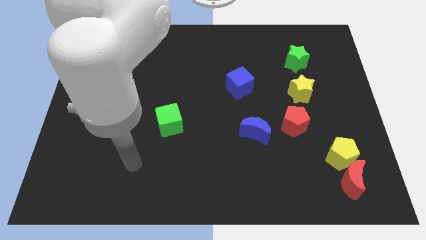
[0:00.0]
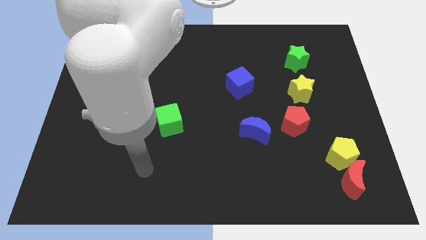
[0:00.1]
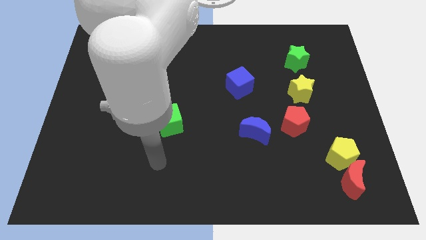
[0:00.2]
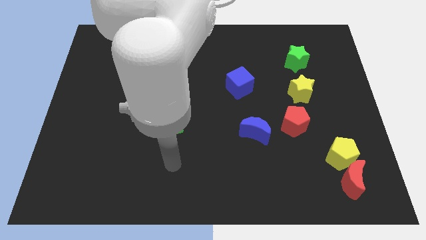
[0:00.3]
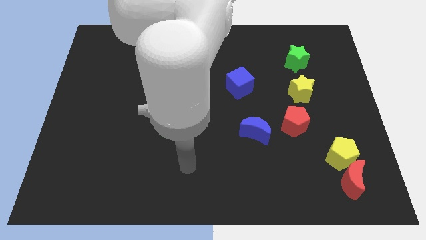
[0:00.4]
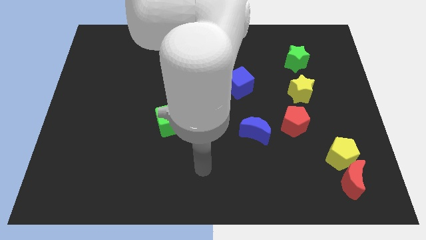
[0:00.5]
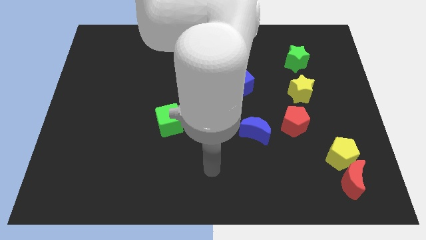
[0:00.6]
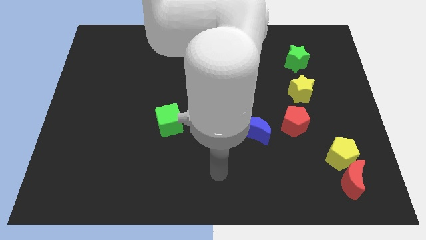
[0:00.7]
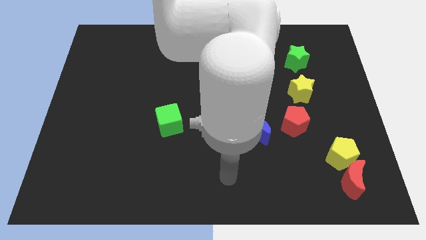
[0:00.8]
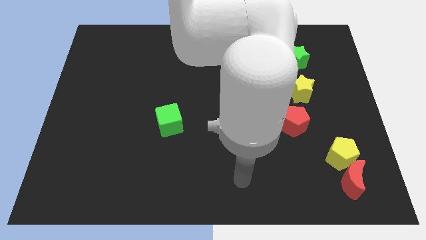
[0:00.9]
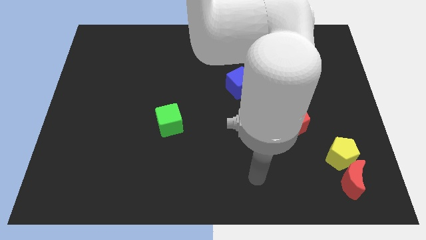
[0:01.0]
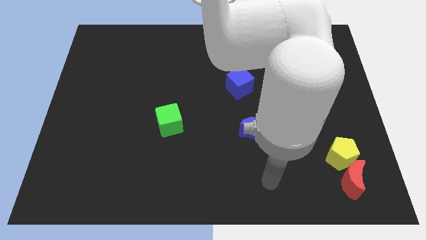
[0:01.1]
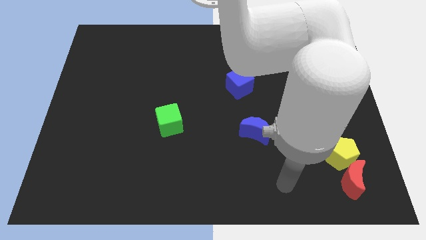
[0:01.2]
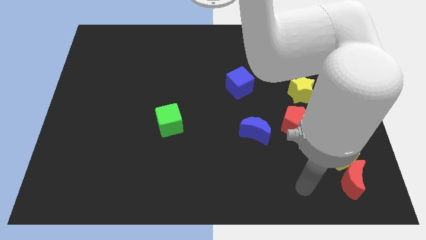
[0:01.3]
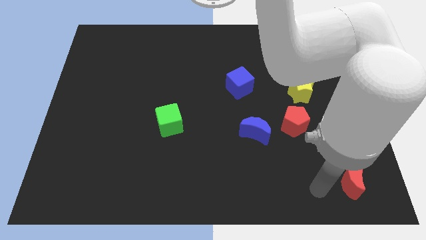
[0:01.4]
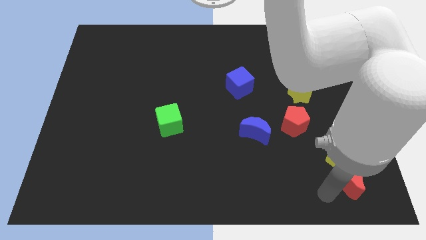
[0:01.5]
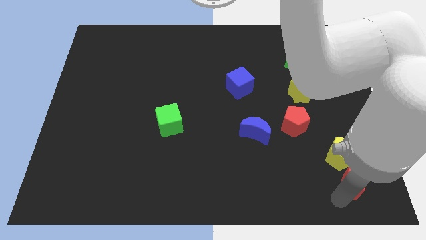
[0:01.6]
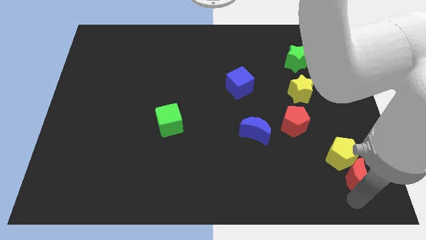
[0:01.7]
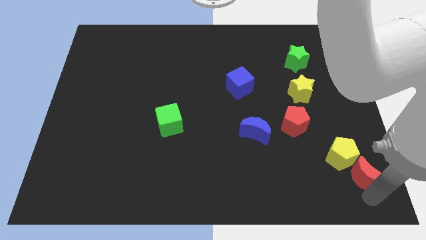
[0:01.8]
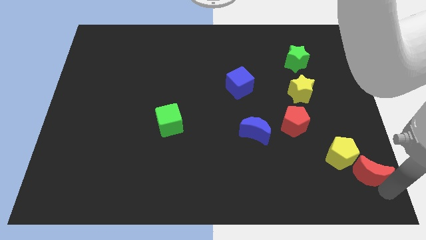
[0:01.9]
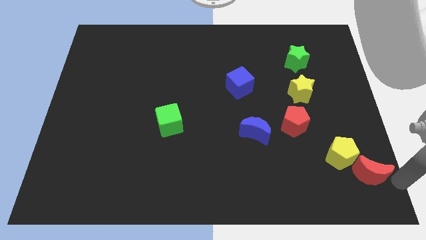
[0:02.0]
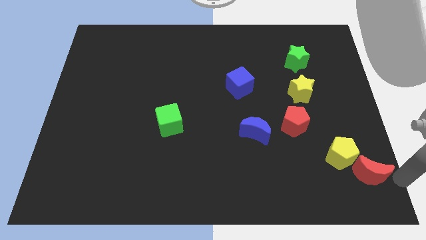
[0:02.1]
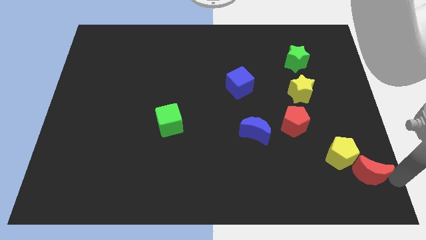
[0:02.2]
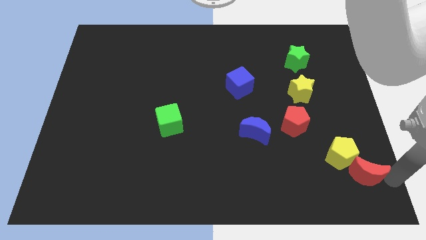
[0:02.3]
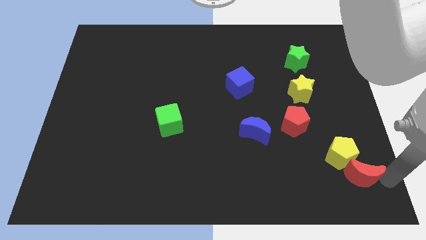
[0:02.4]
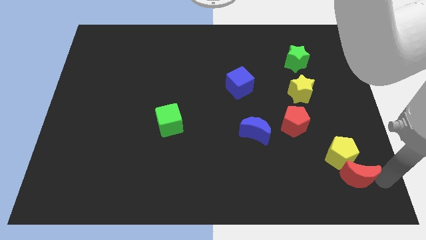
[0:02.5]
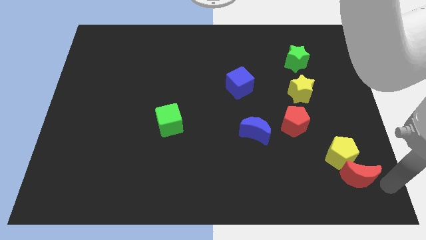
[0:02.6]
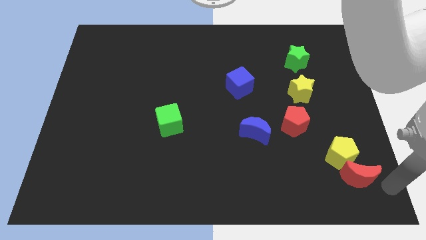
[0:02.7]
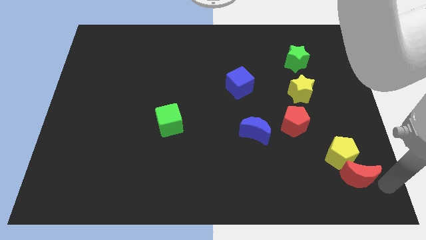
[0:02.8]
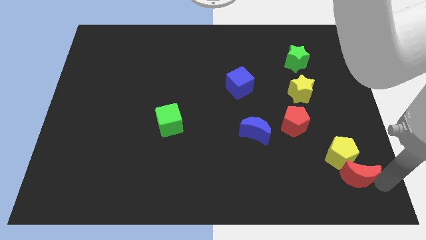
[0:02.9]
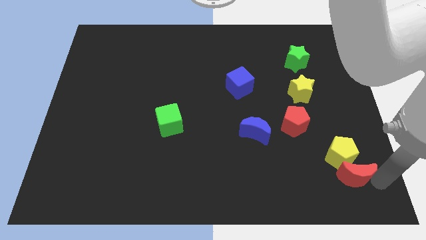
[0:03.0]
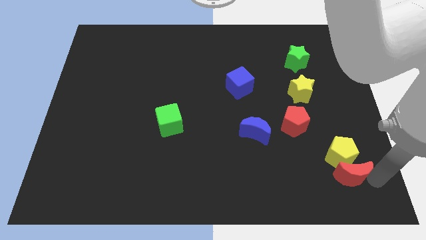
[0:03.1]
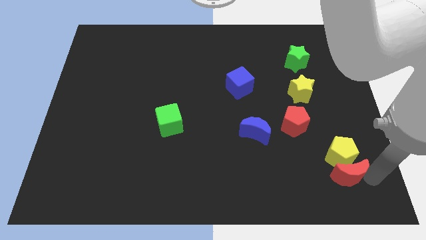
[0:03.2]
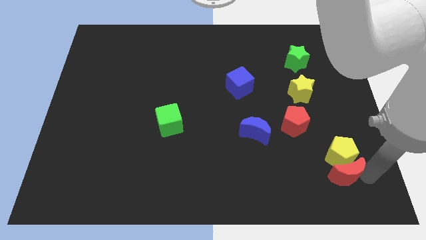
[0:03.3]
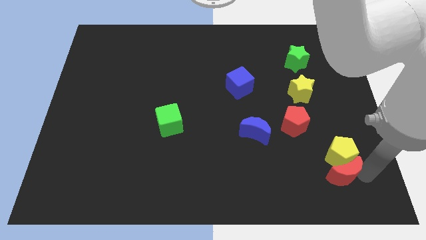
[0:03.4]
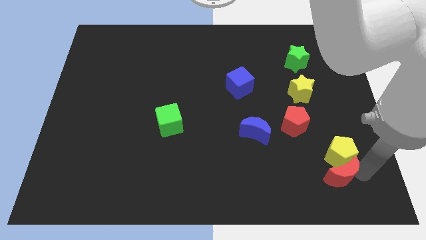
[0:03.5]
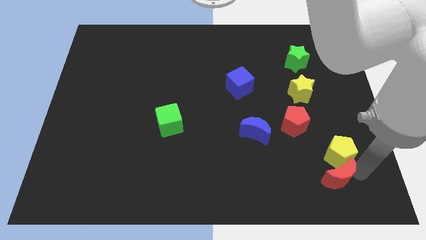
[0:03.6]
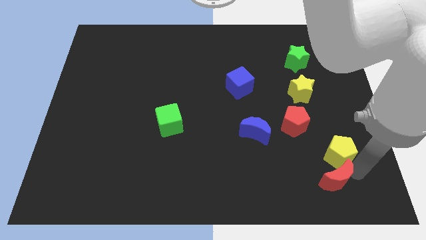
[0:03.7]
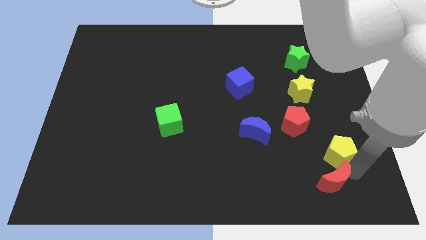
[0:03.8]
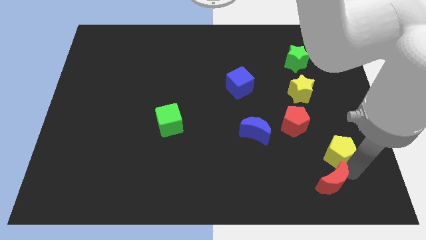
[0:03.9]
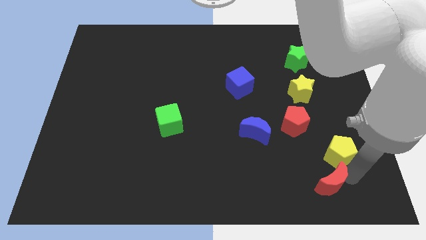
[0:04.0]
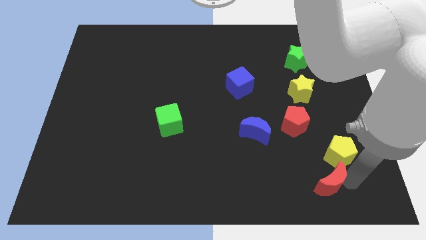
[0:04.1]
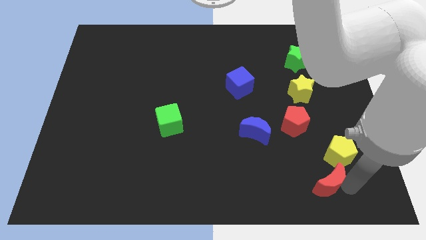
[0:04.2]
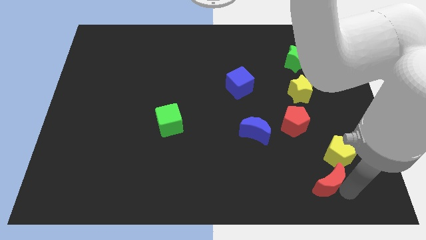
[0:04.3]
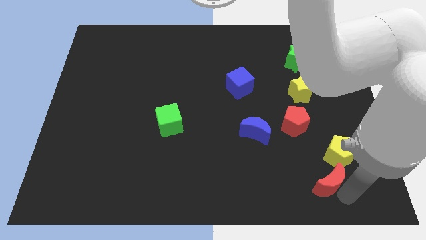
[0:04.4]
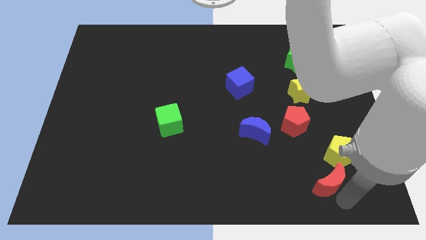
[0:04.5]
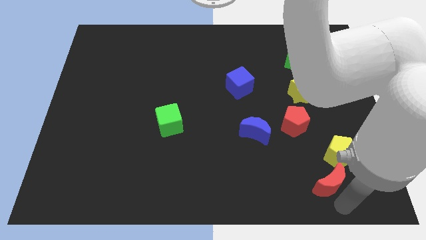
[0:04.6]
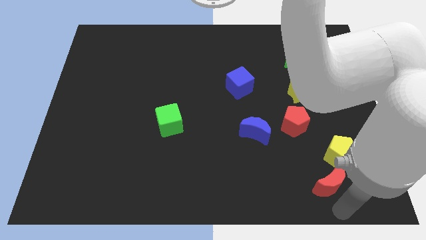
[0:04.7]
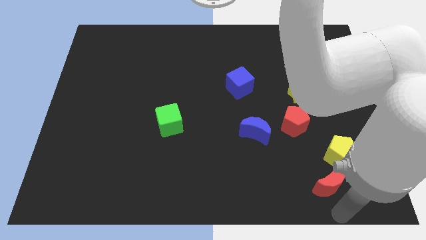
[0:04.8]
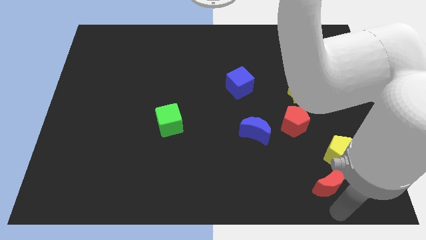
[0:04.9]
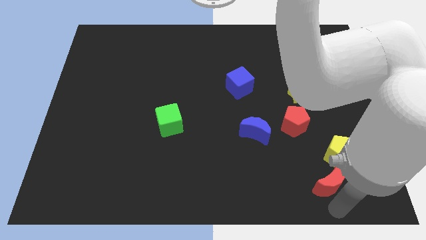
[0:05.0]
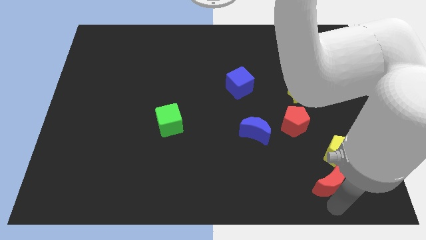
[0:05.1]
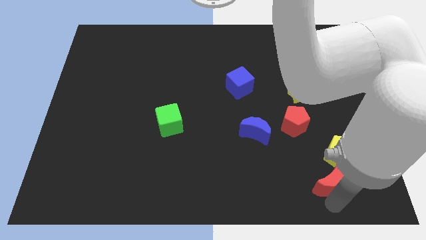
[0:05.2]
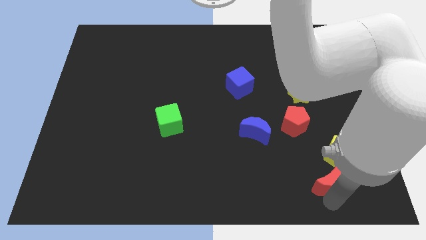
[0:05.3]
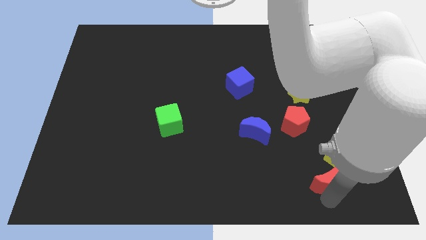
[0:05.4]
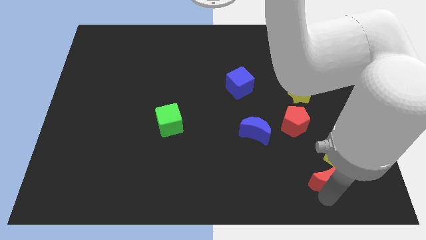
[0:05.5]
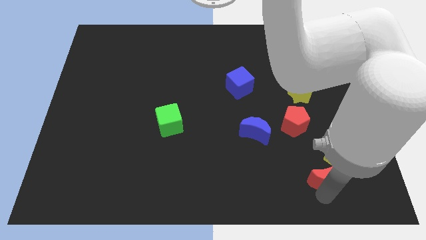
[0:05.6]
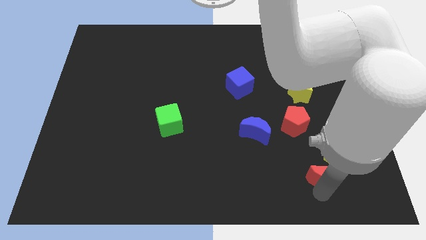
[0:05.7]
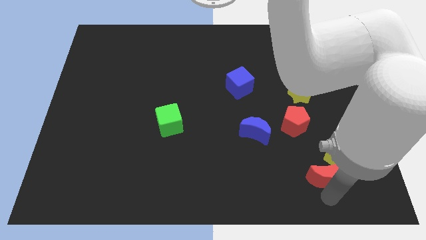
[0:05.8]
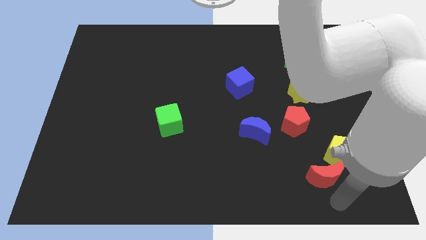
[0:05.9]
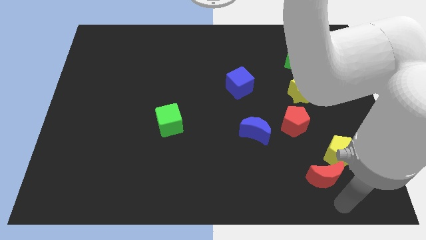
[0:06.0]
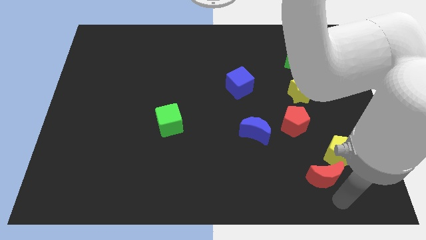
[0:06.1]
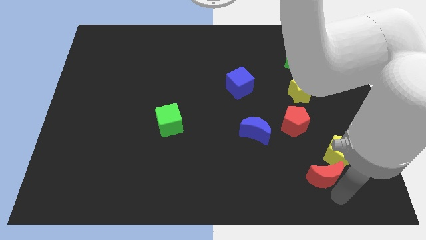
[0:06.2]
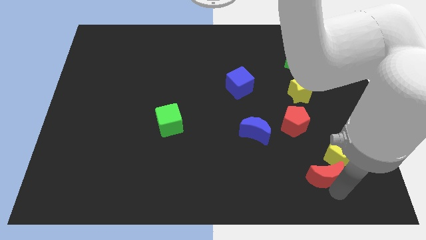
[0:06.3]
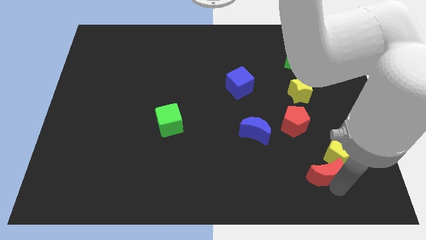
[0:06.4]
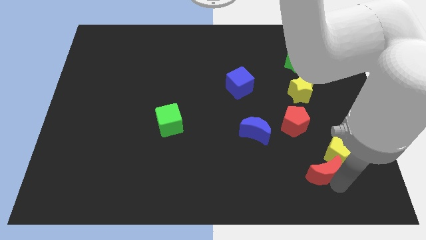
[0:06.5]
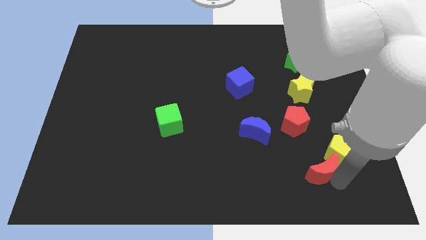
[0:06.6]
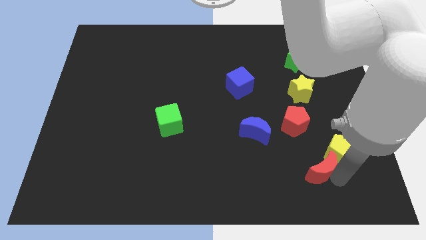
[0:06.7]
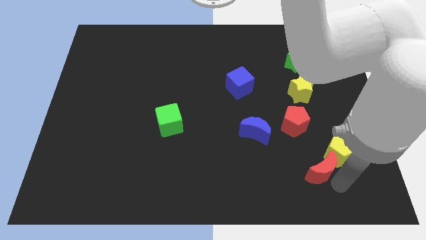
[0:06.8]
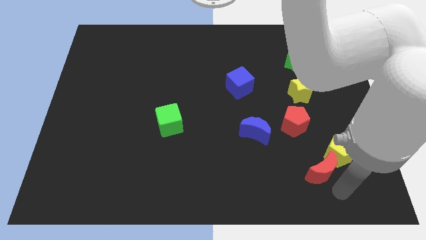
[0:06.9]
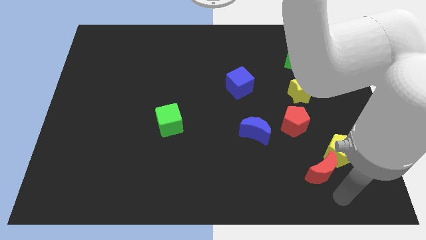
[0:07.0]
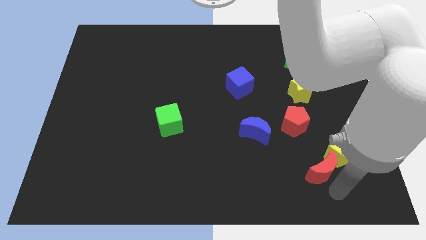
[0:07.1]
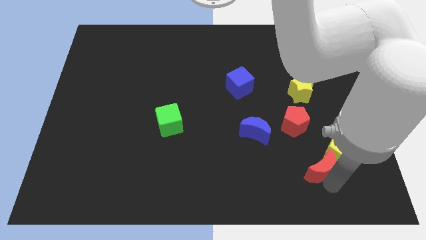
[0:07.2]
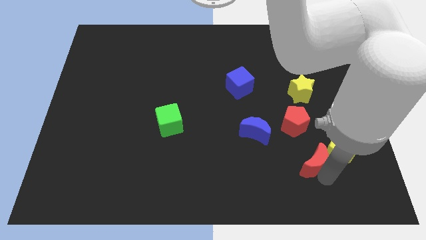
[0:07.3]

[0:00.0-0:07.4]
slightly push the red moon diagonally up and left

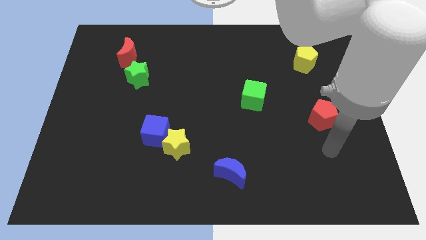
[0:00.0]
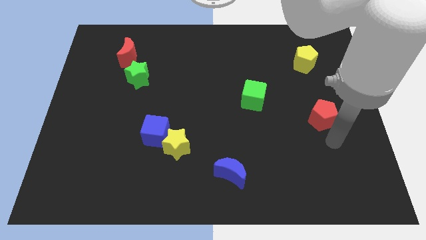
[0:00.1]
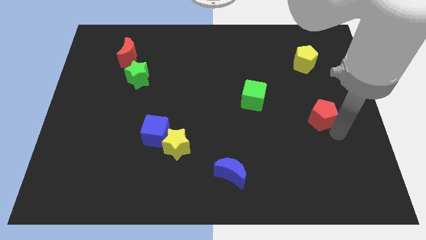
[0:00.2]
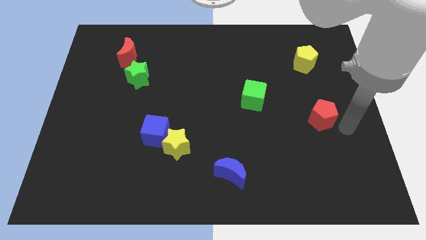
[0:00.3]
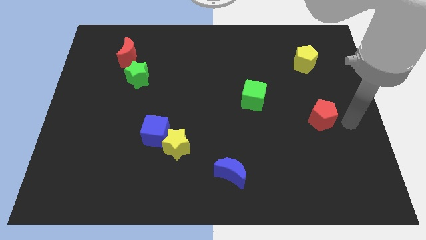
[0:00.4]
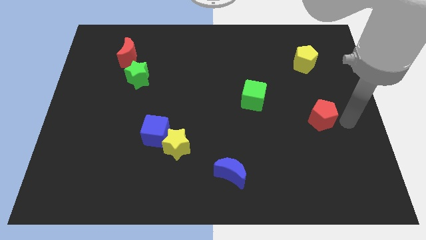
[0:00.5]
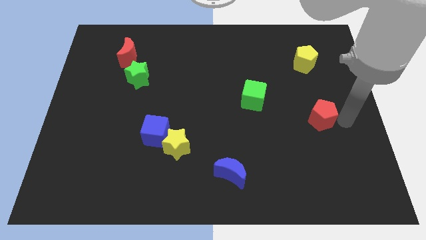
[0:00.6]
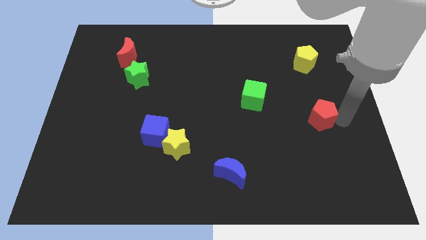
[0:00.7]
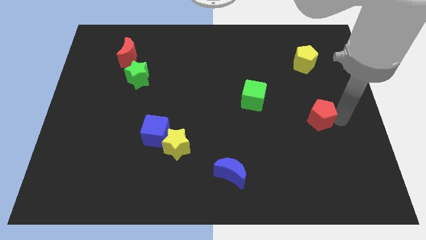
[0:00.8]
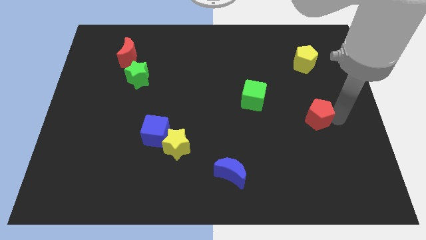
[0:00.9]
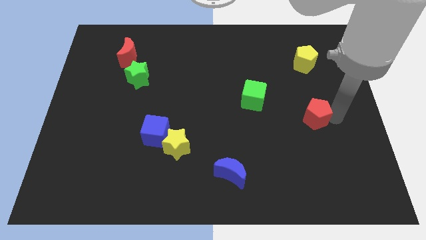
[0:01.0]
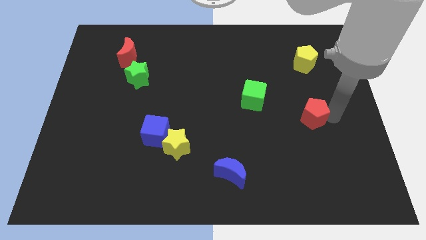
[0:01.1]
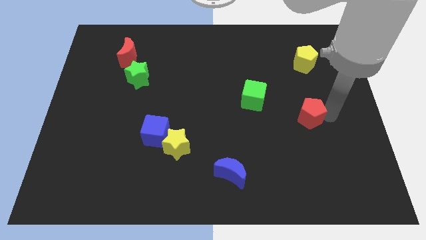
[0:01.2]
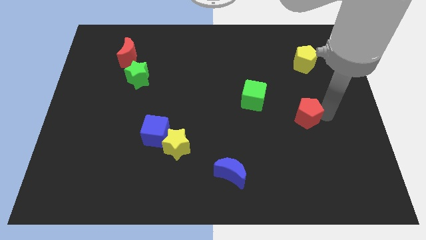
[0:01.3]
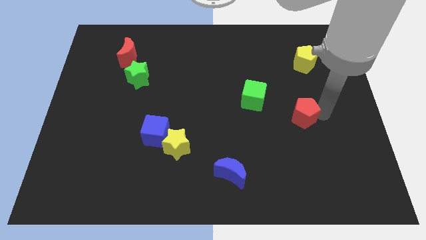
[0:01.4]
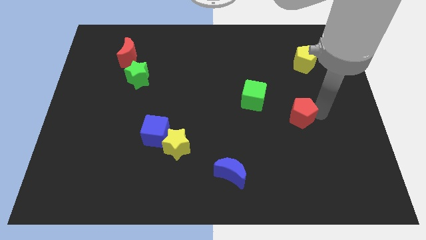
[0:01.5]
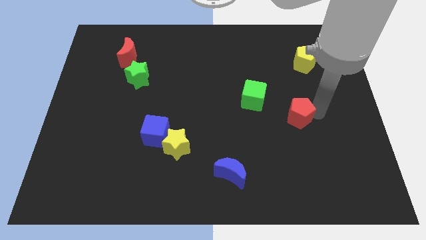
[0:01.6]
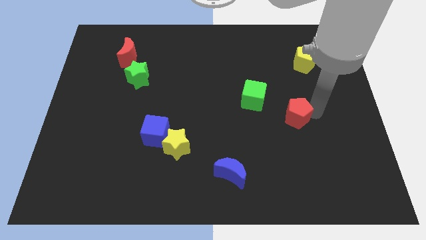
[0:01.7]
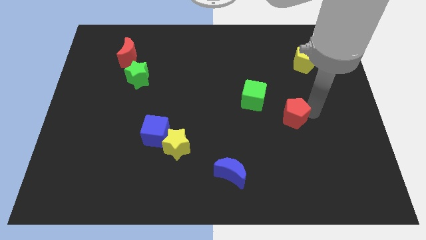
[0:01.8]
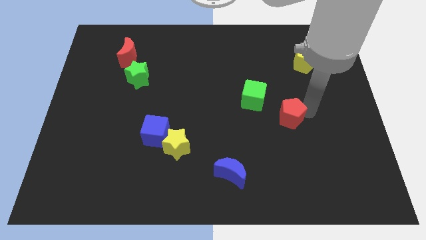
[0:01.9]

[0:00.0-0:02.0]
slightly push the red pentagon to the left
